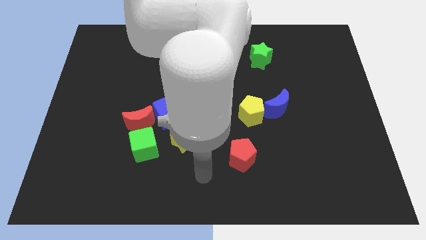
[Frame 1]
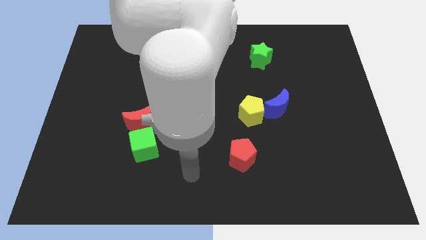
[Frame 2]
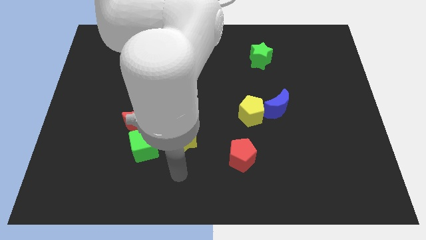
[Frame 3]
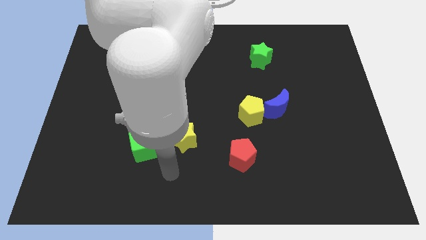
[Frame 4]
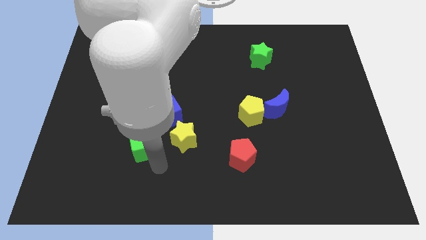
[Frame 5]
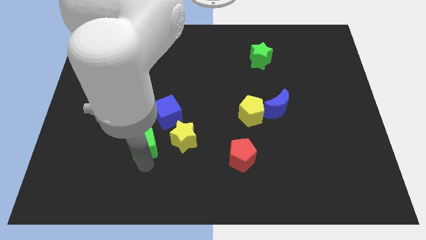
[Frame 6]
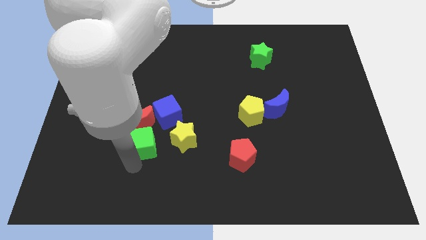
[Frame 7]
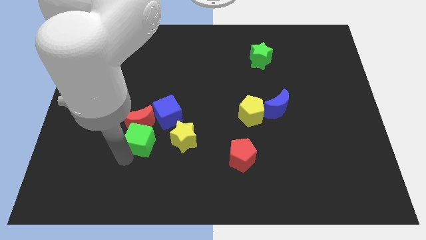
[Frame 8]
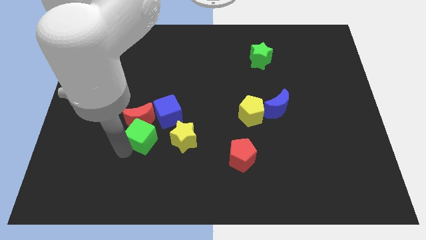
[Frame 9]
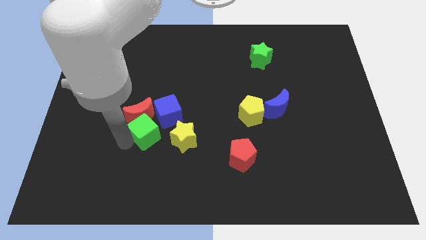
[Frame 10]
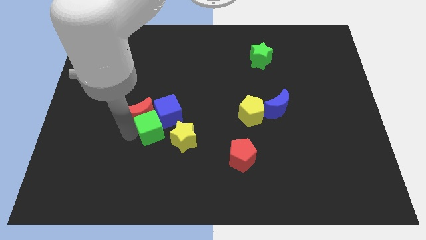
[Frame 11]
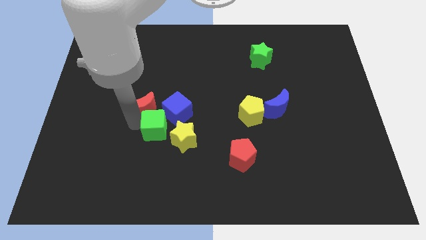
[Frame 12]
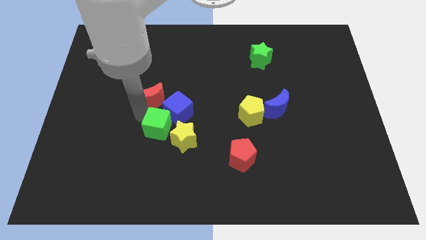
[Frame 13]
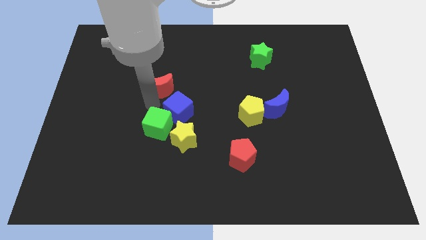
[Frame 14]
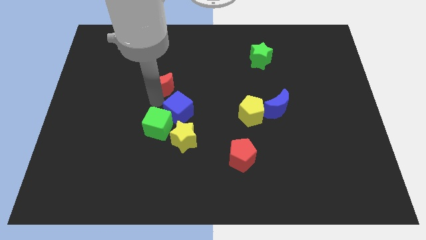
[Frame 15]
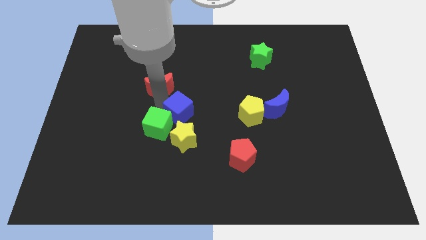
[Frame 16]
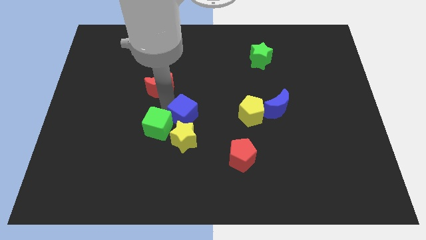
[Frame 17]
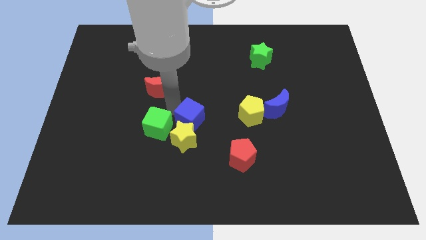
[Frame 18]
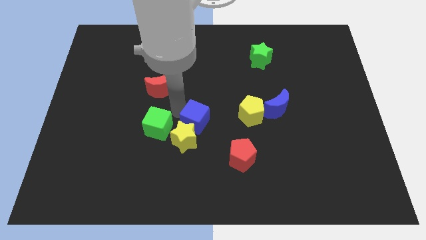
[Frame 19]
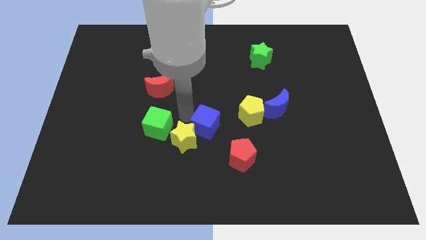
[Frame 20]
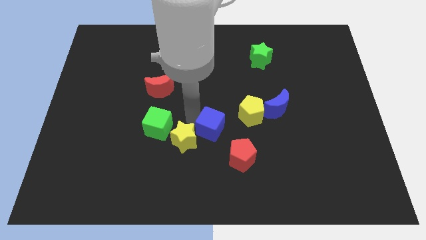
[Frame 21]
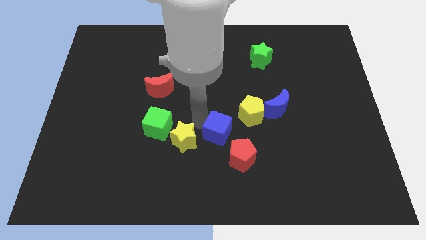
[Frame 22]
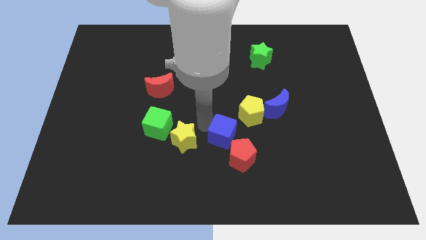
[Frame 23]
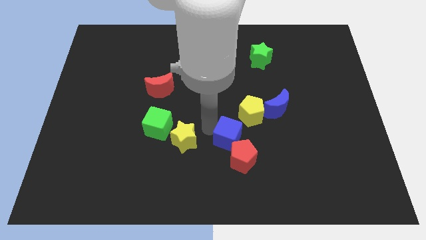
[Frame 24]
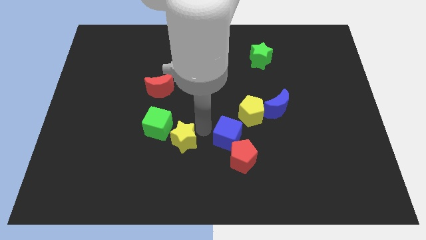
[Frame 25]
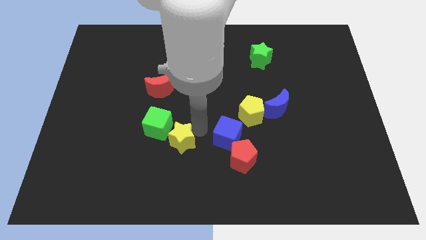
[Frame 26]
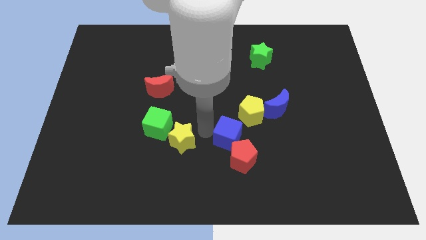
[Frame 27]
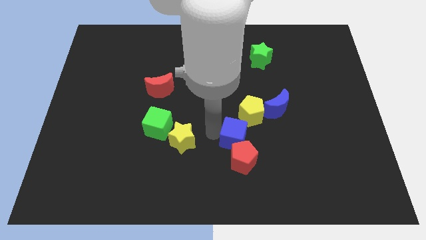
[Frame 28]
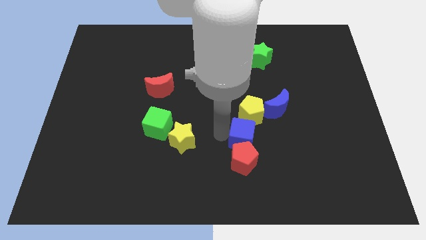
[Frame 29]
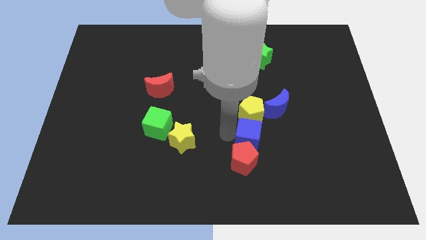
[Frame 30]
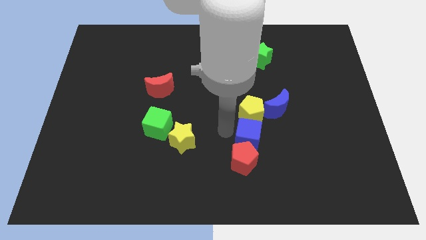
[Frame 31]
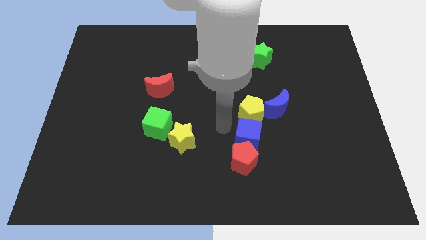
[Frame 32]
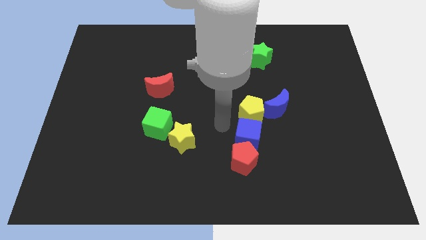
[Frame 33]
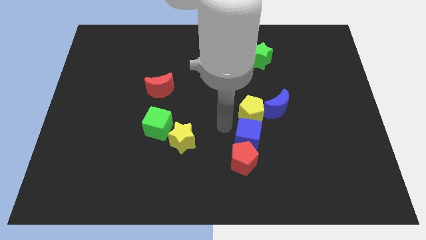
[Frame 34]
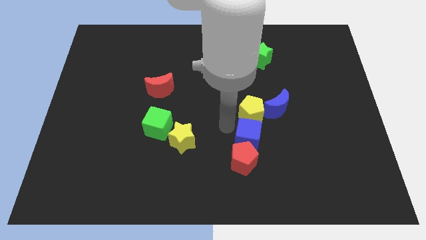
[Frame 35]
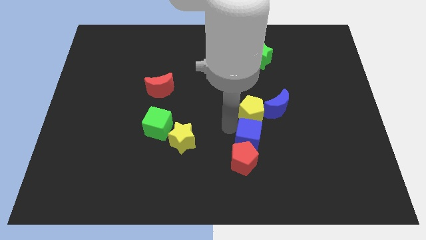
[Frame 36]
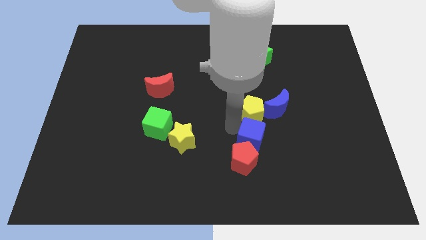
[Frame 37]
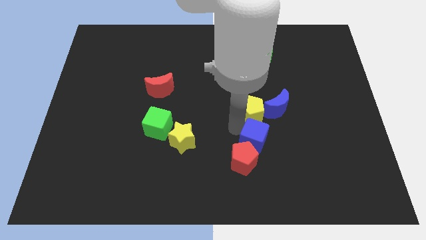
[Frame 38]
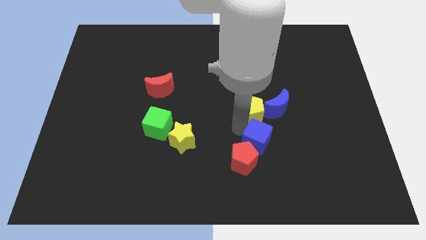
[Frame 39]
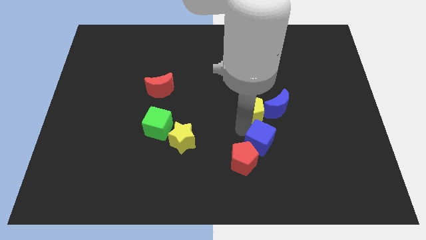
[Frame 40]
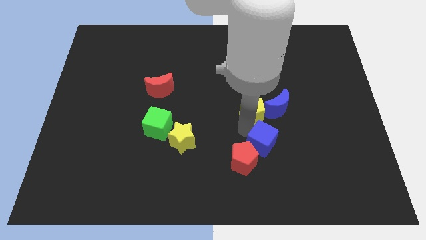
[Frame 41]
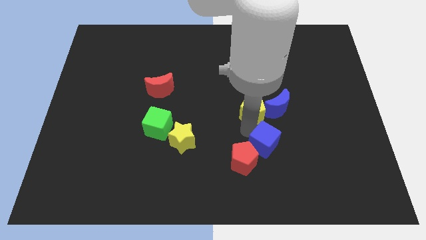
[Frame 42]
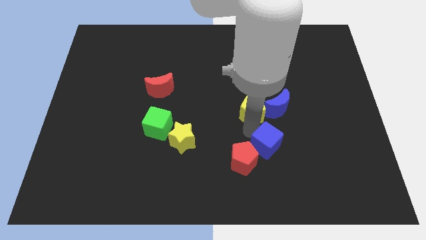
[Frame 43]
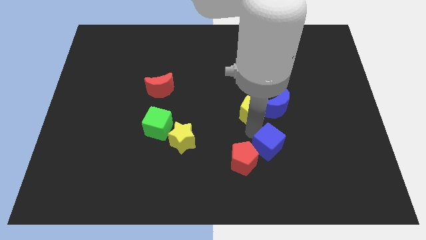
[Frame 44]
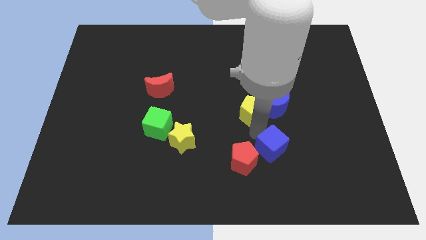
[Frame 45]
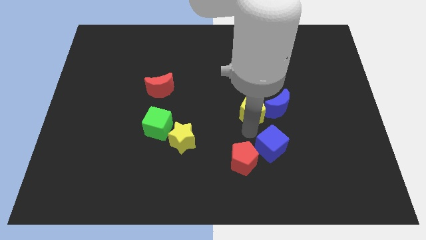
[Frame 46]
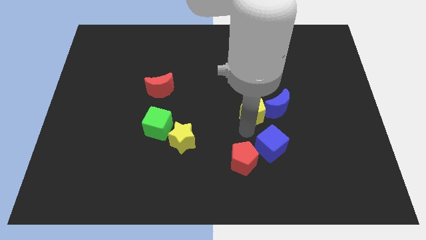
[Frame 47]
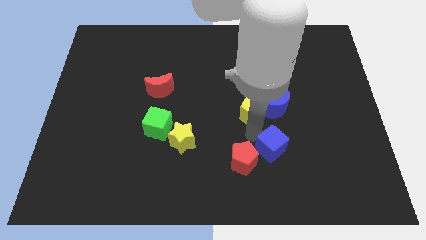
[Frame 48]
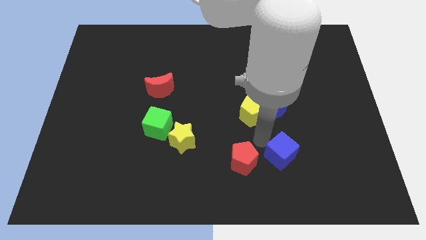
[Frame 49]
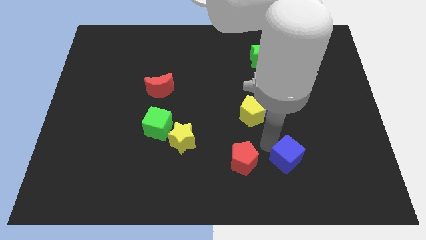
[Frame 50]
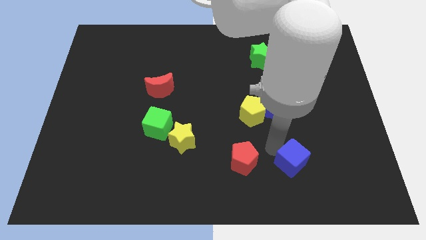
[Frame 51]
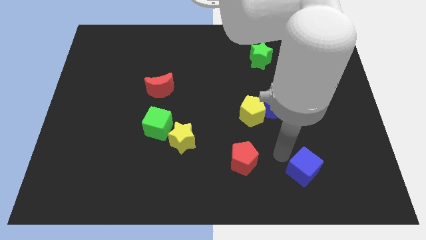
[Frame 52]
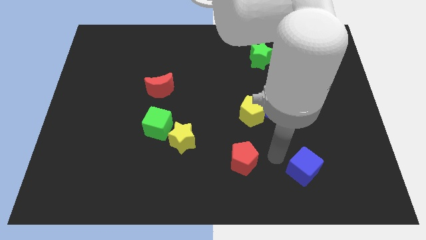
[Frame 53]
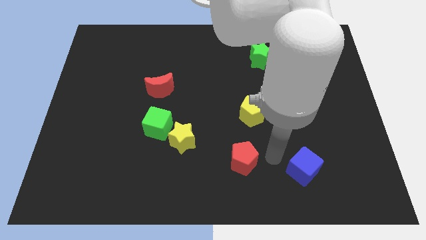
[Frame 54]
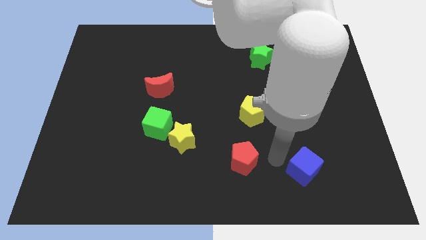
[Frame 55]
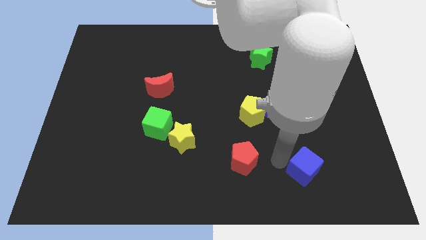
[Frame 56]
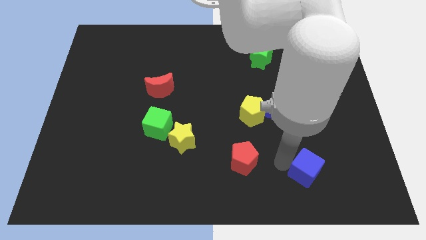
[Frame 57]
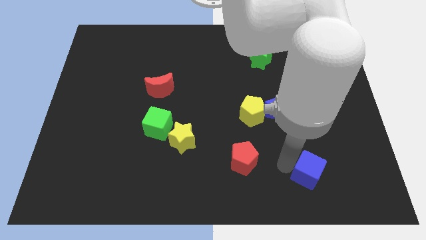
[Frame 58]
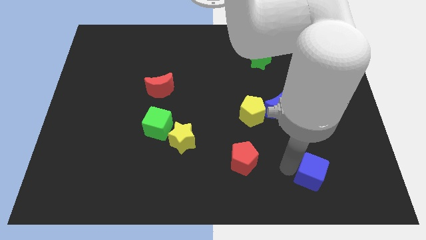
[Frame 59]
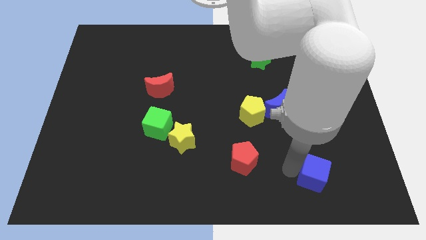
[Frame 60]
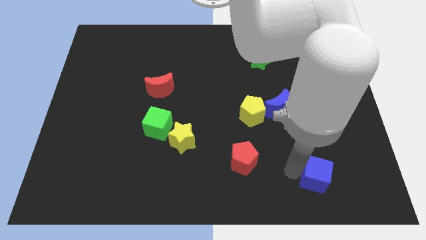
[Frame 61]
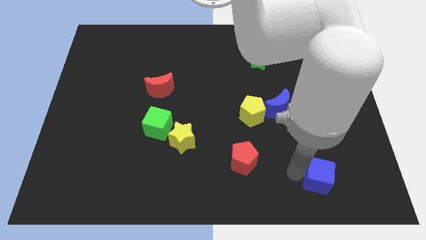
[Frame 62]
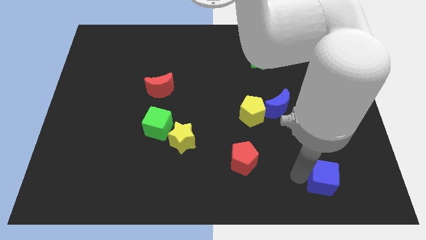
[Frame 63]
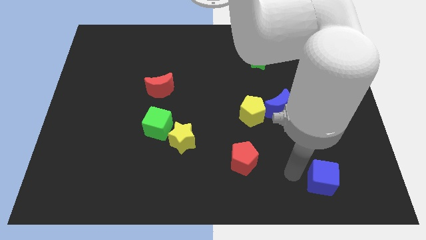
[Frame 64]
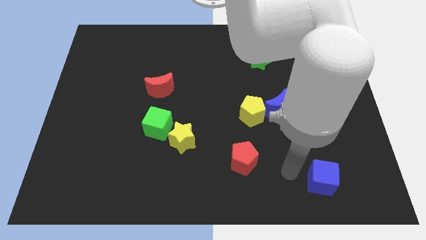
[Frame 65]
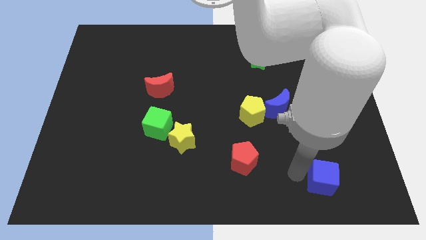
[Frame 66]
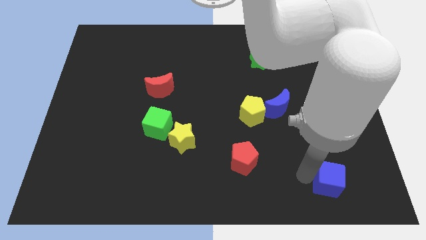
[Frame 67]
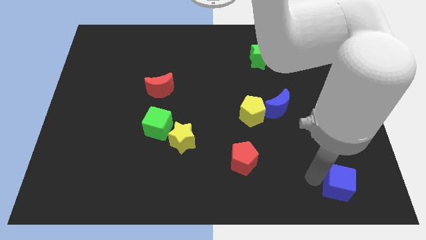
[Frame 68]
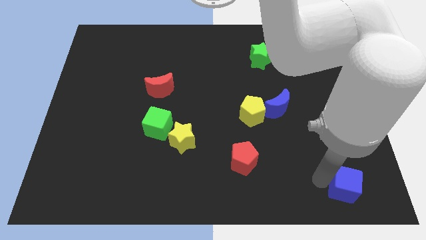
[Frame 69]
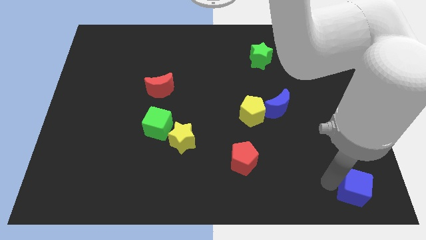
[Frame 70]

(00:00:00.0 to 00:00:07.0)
push the blue cube to the lower right corner
